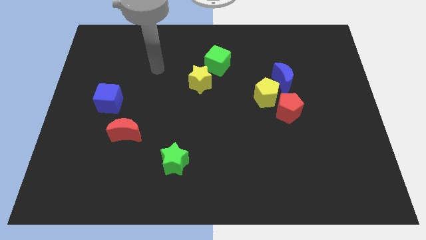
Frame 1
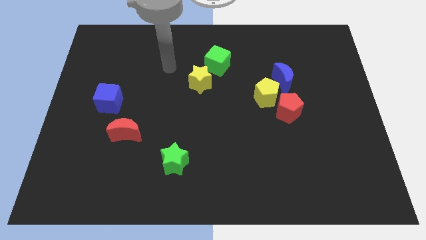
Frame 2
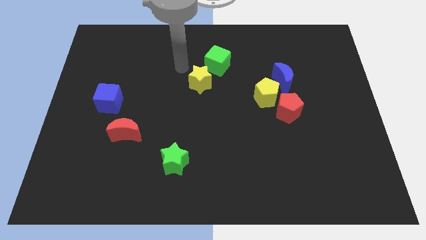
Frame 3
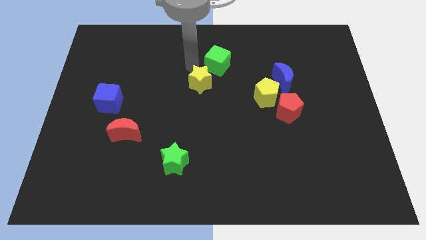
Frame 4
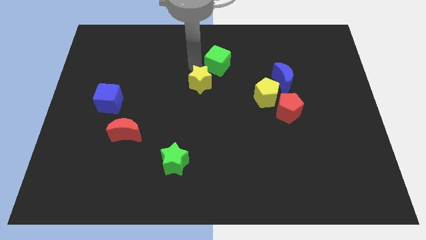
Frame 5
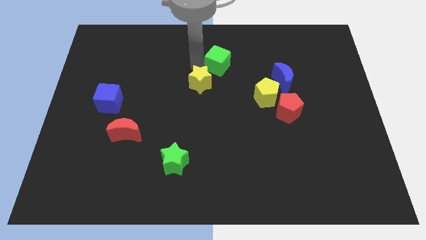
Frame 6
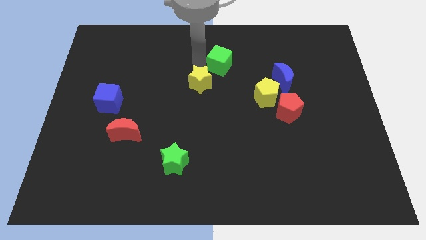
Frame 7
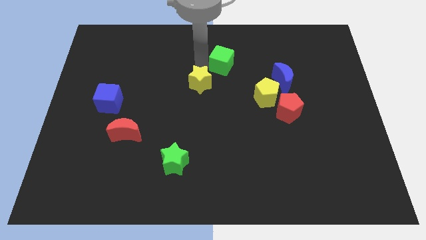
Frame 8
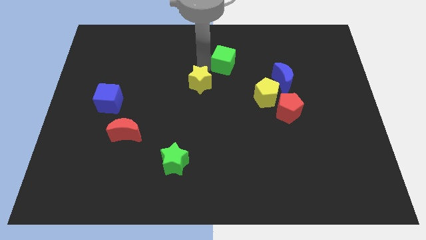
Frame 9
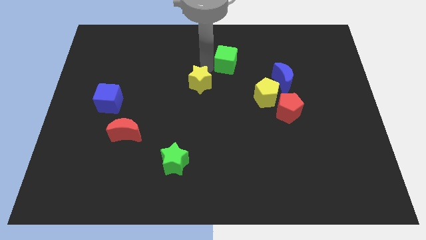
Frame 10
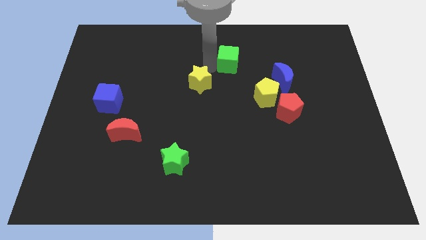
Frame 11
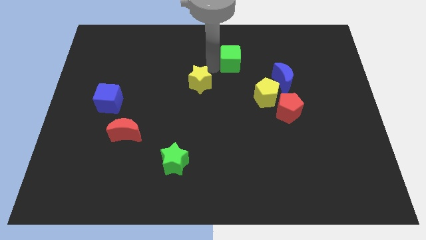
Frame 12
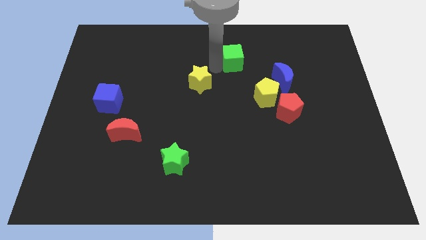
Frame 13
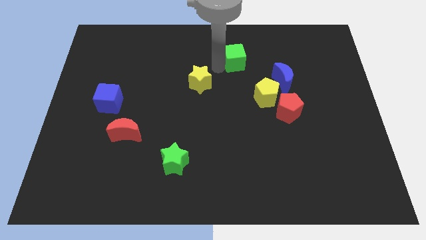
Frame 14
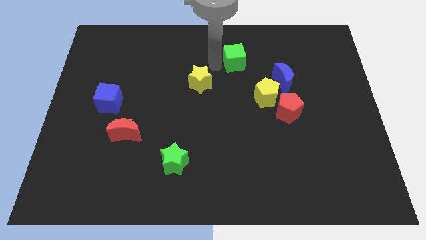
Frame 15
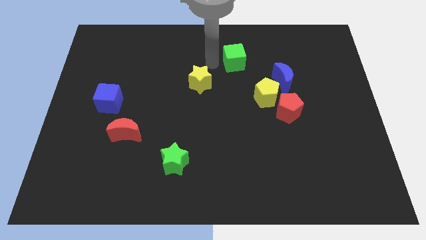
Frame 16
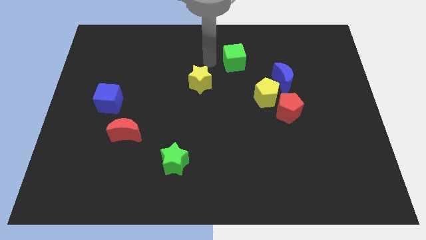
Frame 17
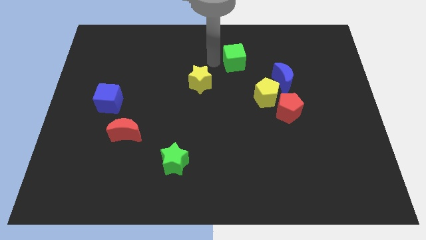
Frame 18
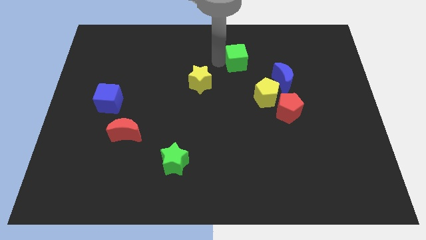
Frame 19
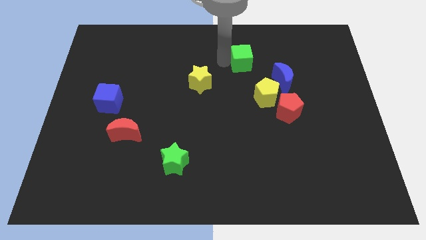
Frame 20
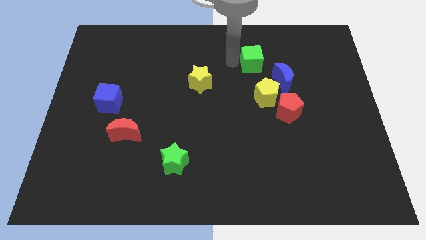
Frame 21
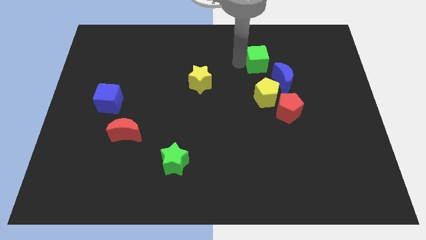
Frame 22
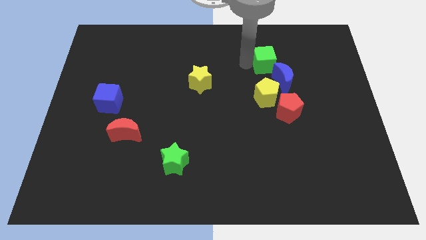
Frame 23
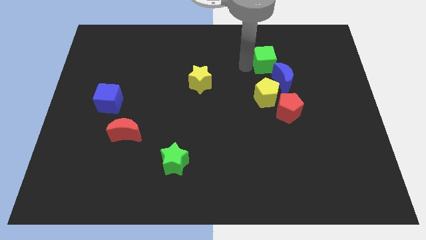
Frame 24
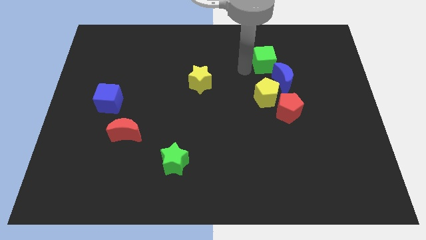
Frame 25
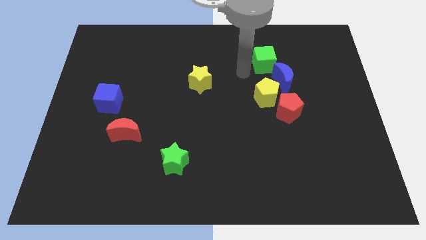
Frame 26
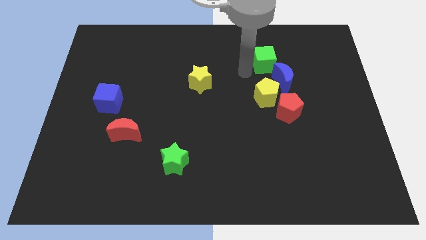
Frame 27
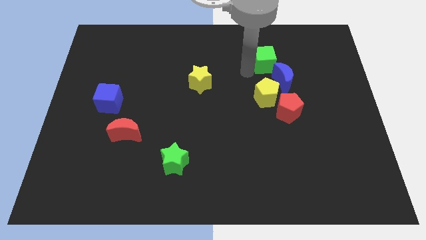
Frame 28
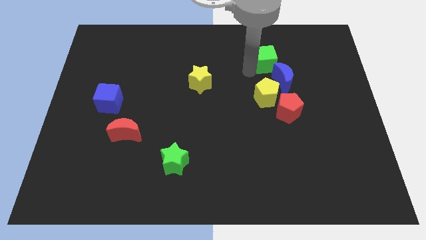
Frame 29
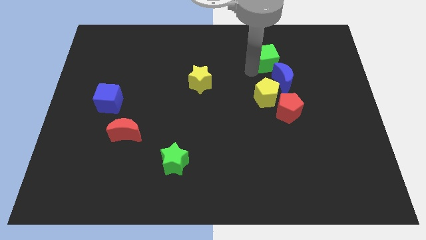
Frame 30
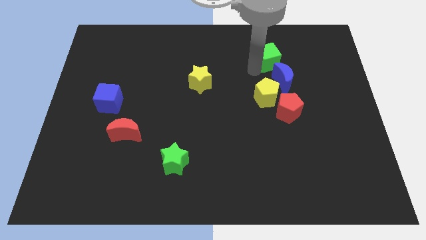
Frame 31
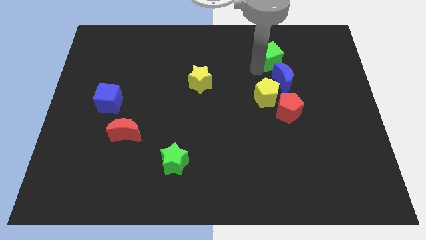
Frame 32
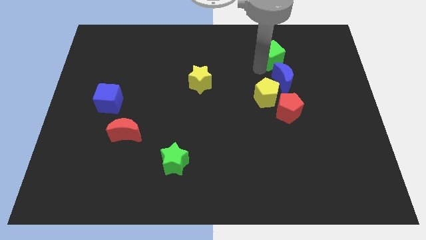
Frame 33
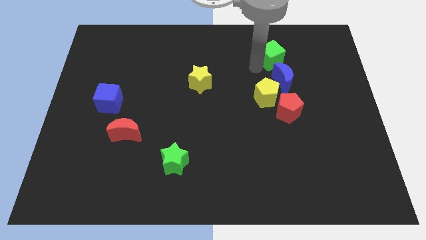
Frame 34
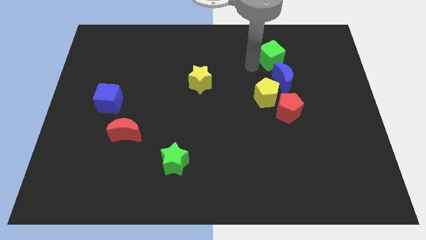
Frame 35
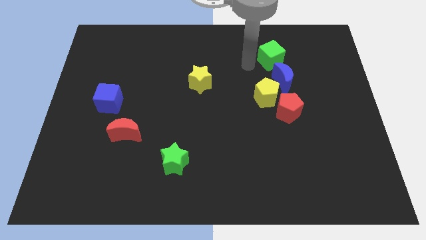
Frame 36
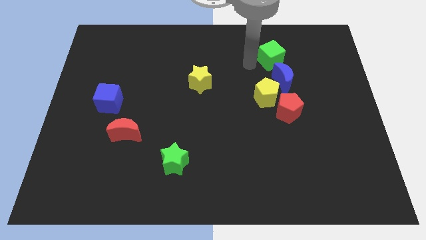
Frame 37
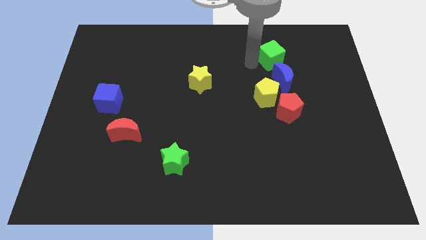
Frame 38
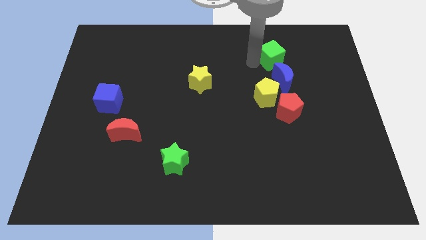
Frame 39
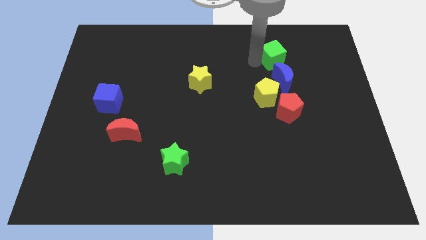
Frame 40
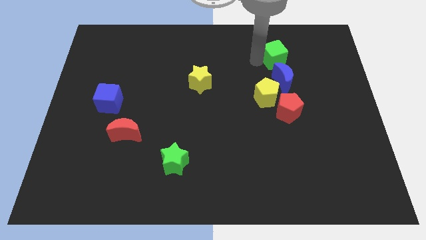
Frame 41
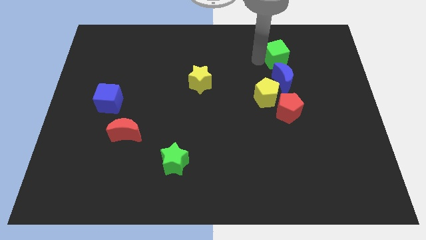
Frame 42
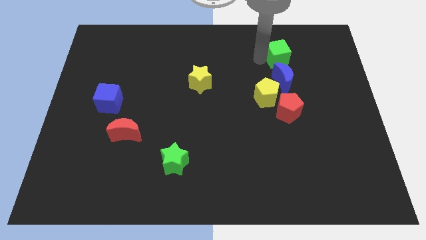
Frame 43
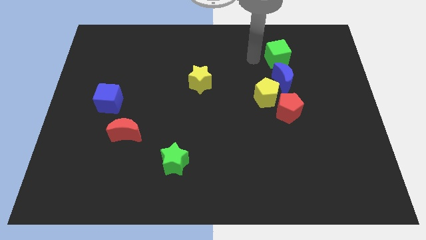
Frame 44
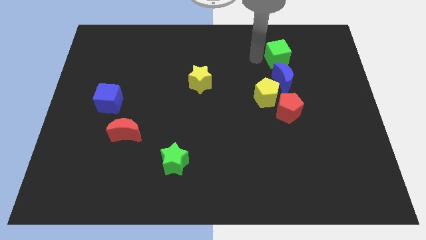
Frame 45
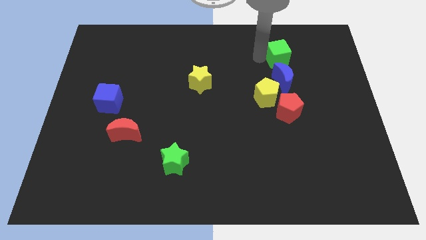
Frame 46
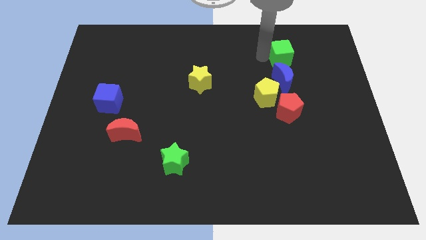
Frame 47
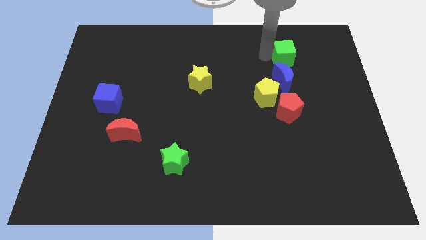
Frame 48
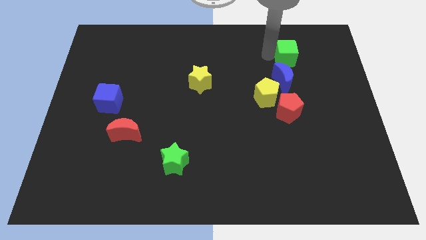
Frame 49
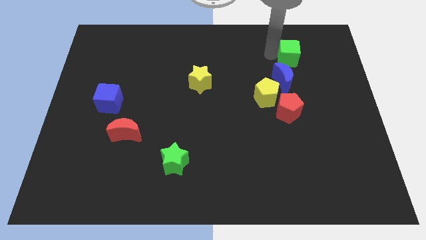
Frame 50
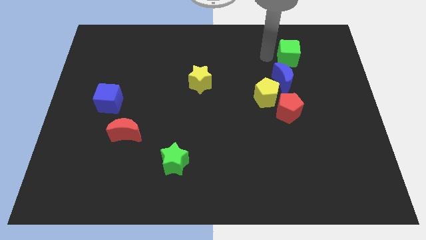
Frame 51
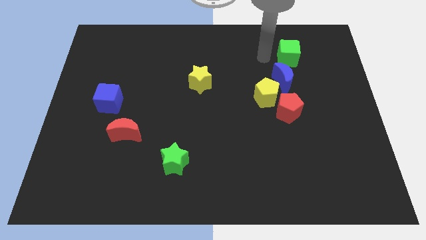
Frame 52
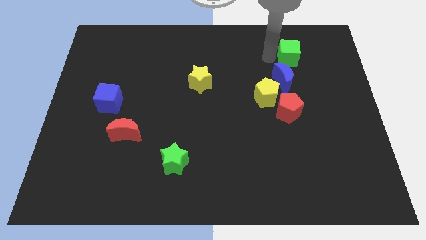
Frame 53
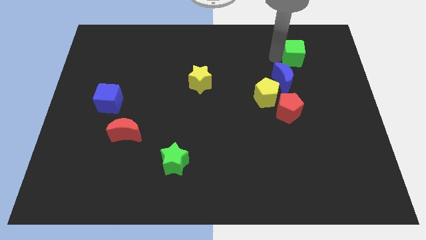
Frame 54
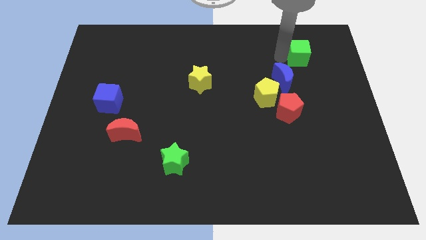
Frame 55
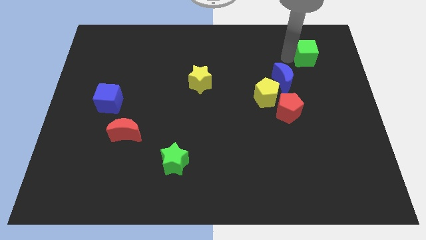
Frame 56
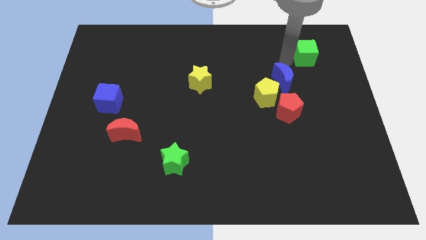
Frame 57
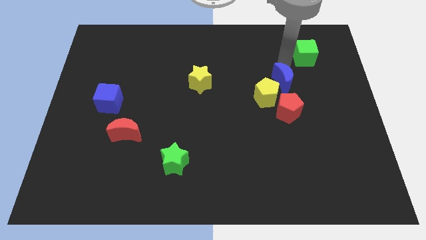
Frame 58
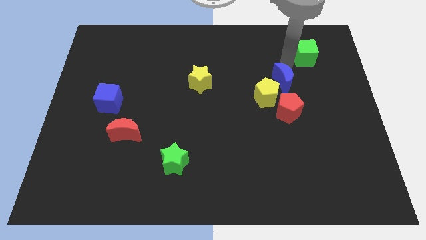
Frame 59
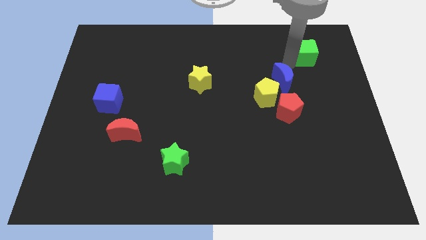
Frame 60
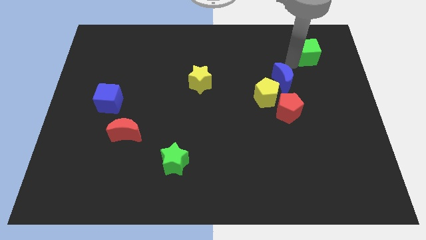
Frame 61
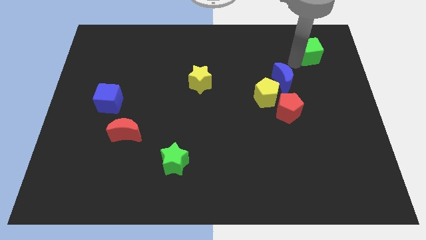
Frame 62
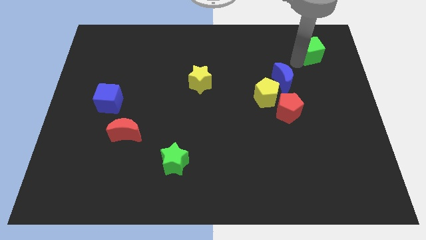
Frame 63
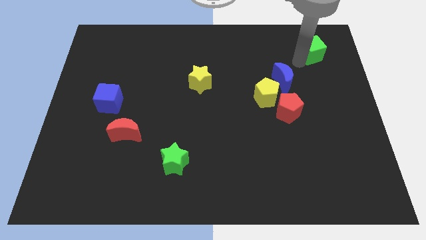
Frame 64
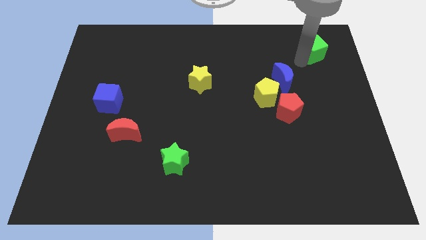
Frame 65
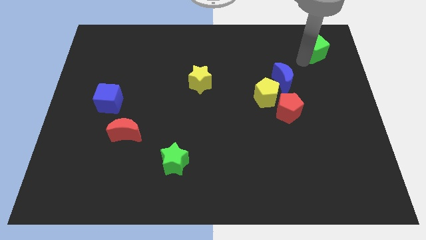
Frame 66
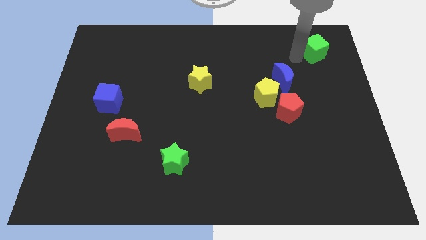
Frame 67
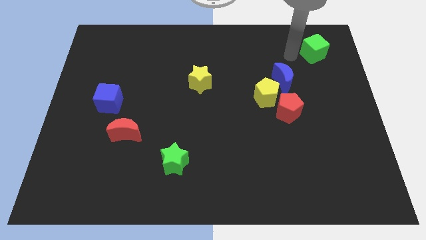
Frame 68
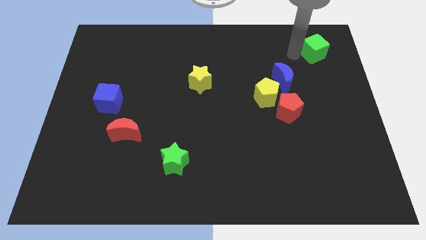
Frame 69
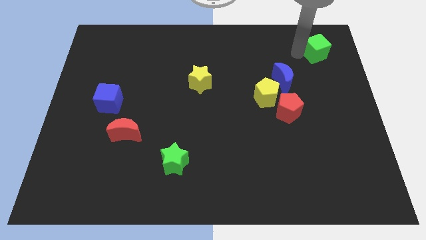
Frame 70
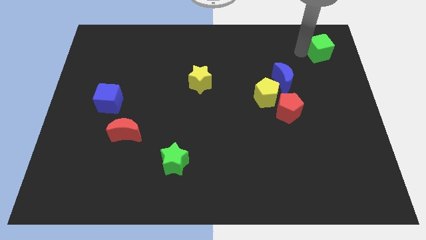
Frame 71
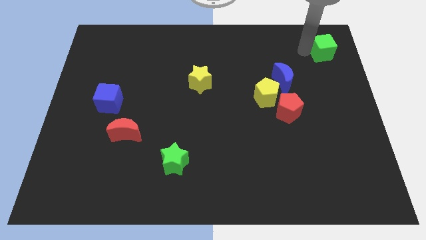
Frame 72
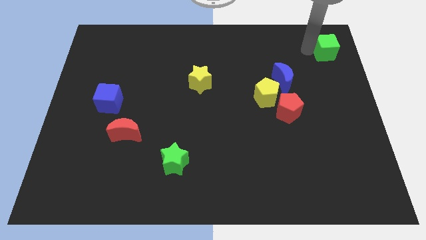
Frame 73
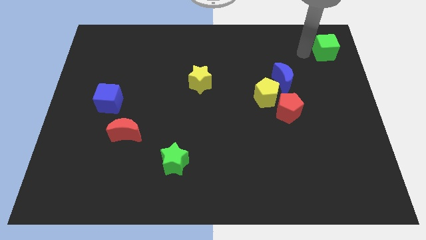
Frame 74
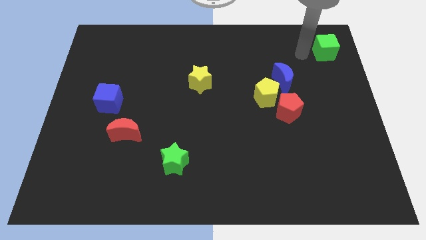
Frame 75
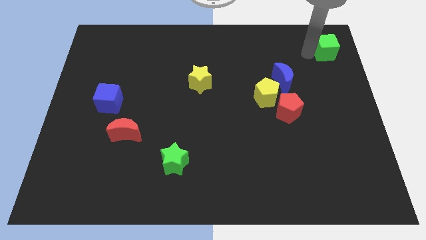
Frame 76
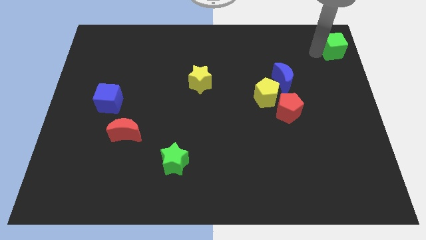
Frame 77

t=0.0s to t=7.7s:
put the green cube to the top right of the board
